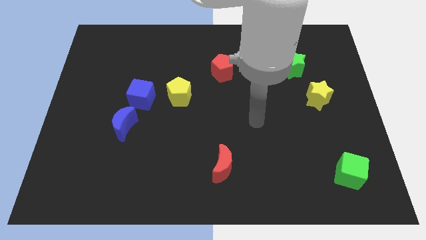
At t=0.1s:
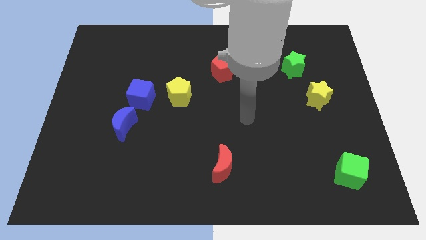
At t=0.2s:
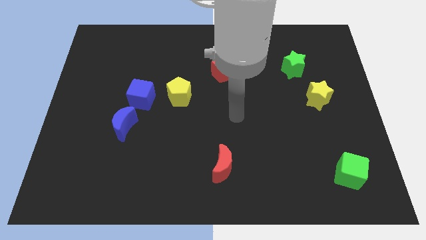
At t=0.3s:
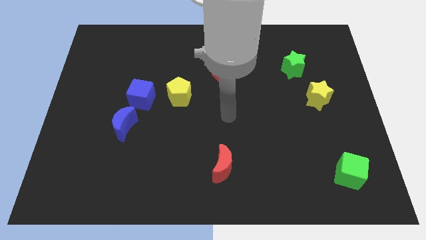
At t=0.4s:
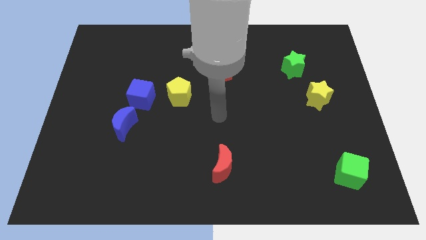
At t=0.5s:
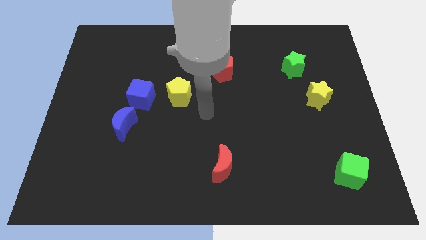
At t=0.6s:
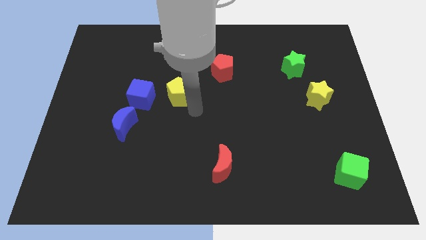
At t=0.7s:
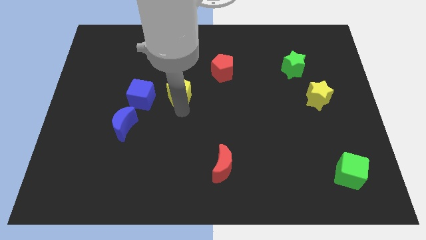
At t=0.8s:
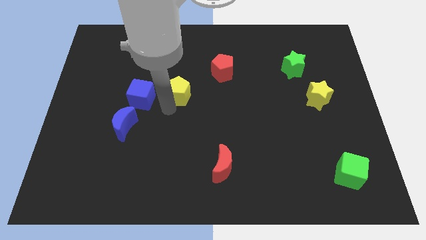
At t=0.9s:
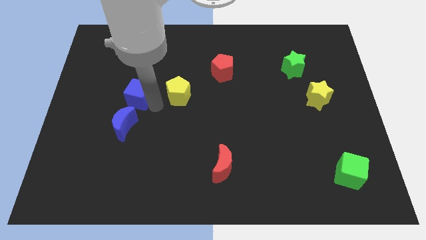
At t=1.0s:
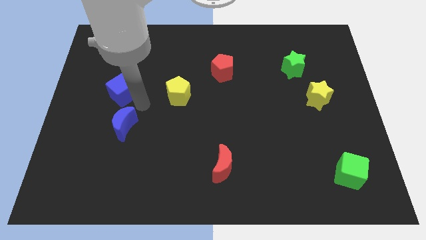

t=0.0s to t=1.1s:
pull the blue moon apart from the blue cube

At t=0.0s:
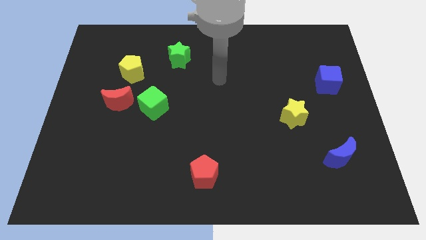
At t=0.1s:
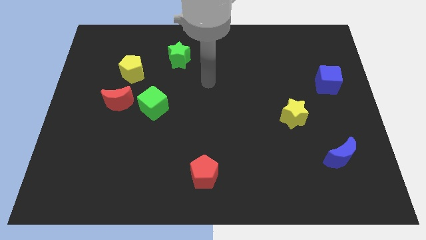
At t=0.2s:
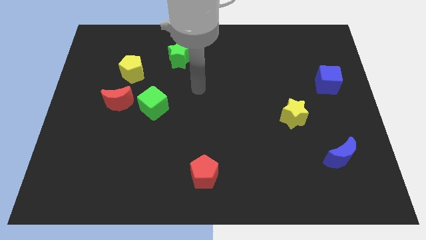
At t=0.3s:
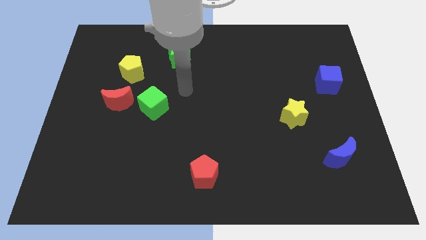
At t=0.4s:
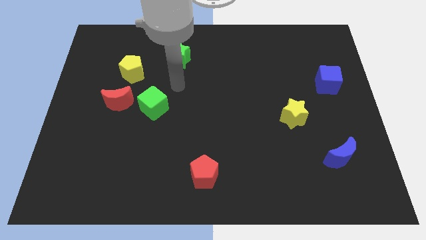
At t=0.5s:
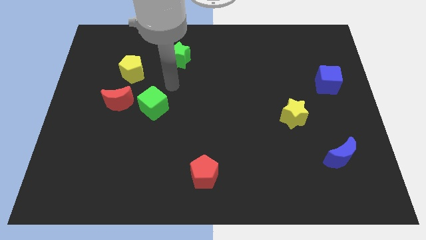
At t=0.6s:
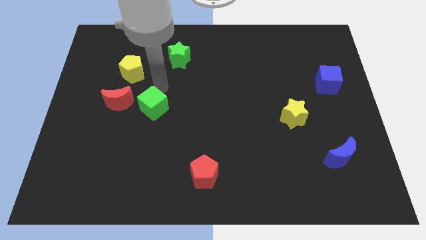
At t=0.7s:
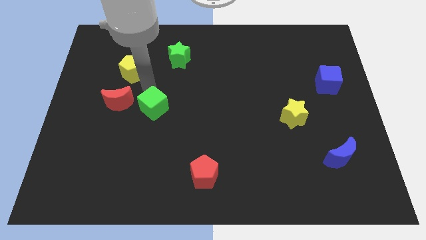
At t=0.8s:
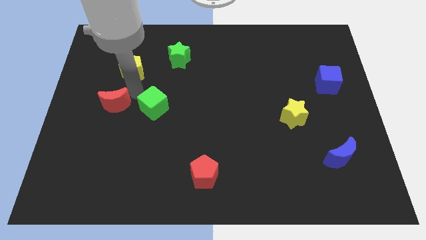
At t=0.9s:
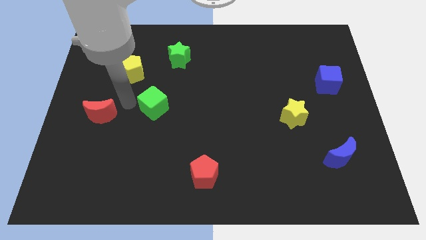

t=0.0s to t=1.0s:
separate the green cube from the red moon

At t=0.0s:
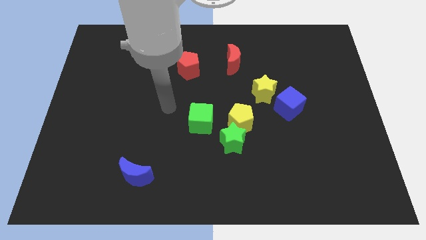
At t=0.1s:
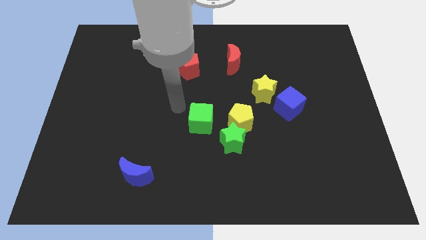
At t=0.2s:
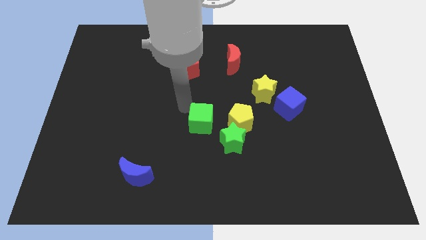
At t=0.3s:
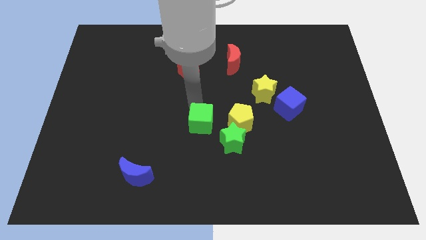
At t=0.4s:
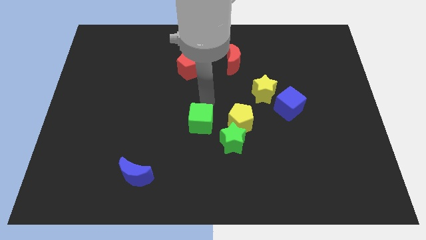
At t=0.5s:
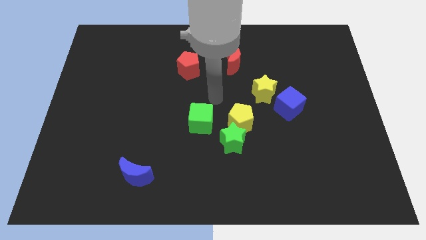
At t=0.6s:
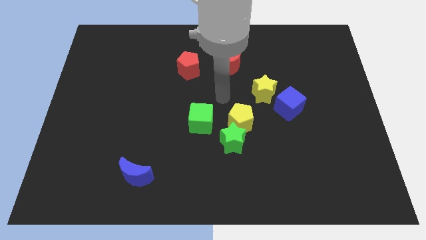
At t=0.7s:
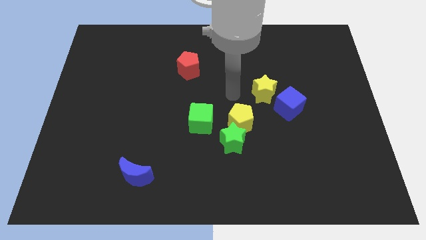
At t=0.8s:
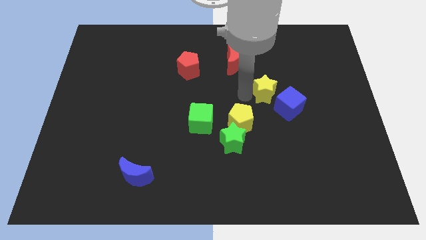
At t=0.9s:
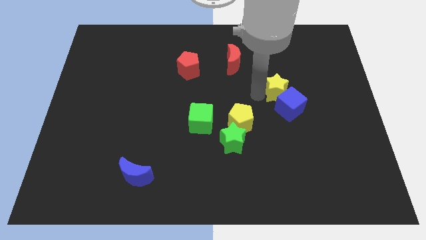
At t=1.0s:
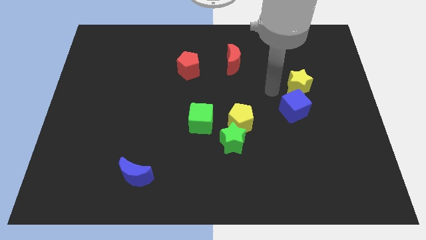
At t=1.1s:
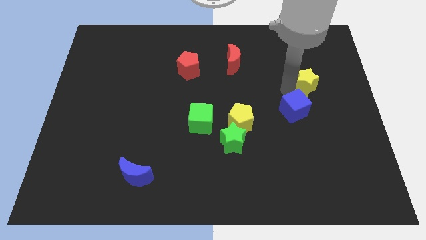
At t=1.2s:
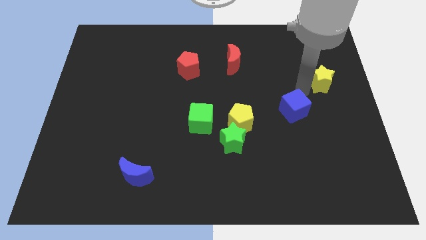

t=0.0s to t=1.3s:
separate the blue cube from the yellow star

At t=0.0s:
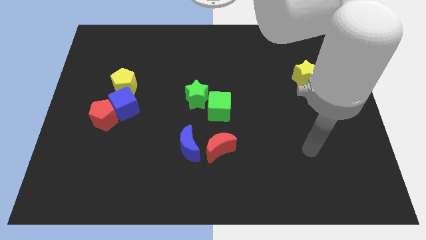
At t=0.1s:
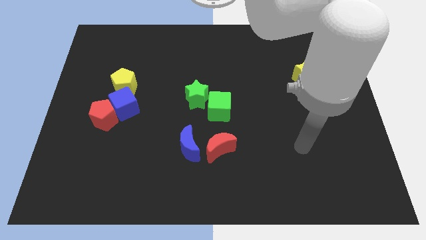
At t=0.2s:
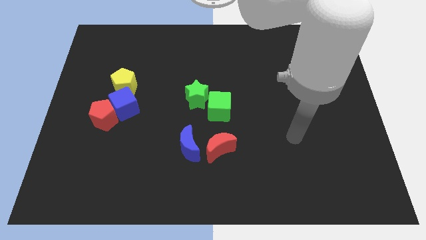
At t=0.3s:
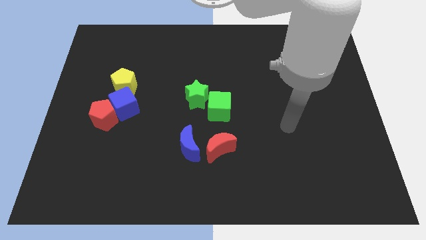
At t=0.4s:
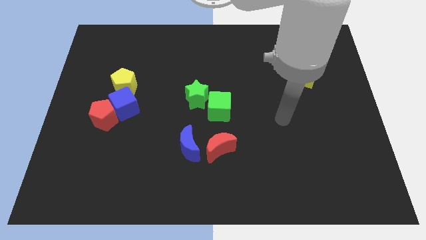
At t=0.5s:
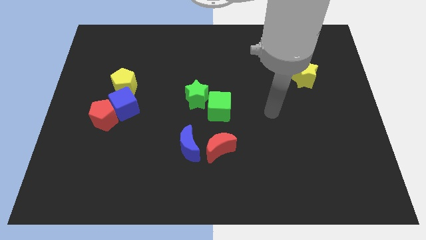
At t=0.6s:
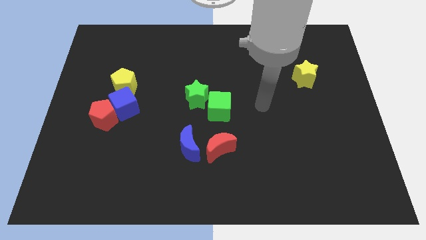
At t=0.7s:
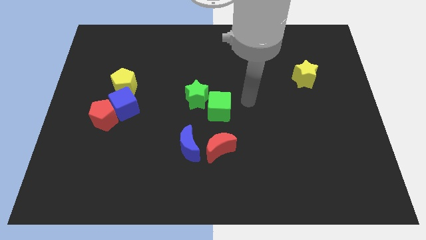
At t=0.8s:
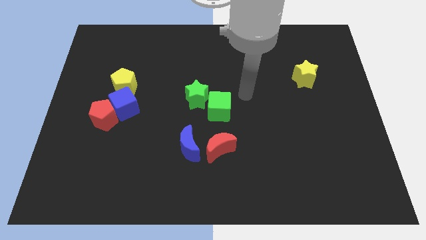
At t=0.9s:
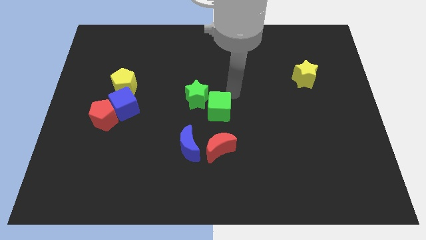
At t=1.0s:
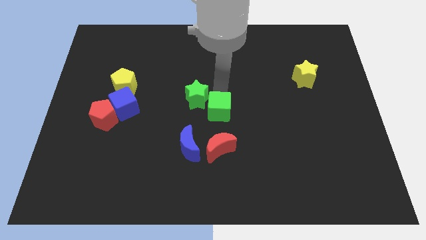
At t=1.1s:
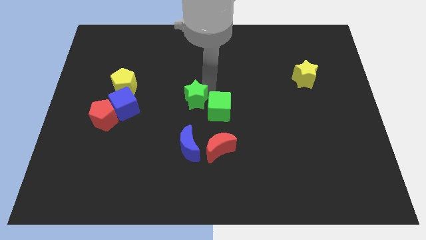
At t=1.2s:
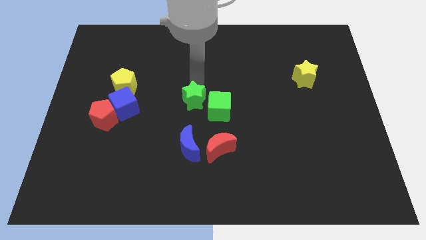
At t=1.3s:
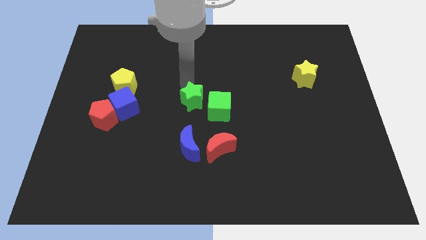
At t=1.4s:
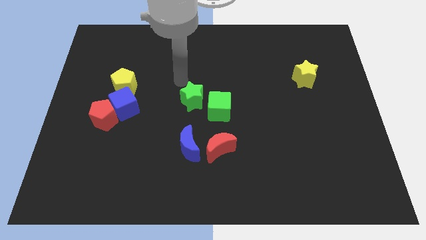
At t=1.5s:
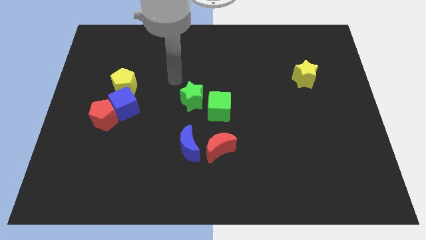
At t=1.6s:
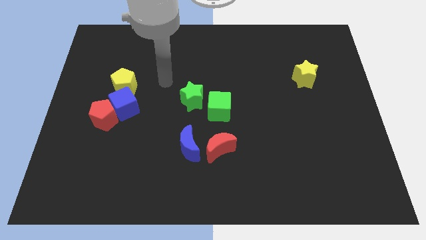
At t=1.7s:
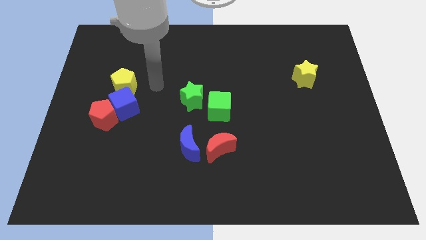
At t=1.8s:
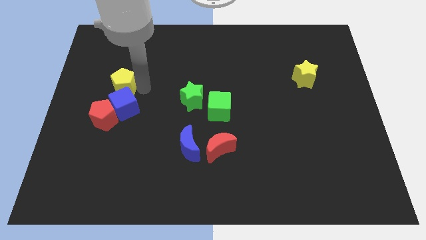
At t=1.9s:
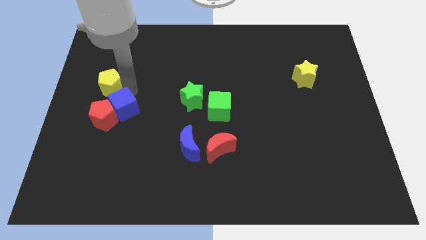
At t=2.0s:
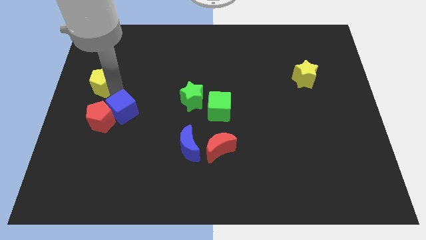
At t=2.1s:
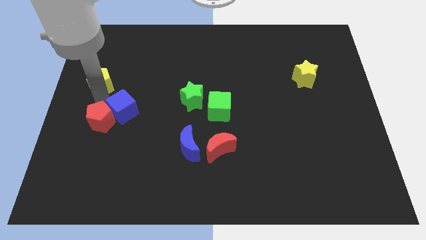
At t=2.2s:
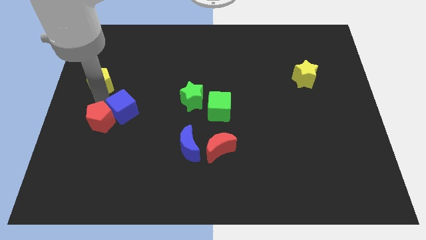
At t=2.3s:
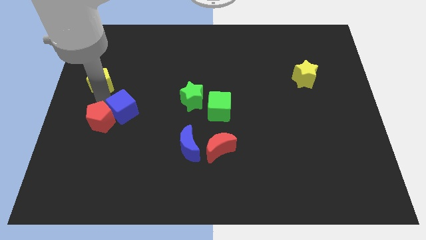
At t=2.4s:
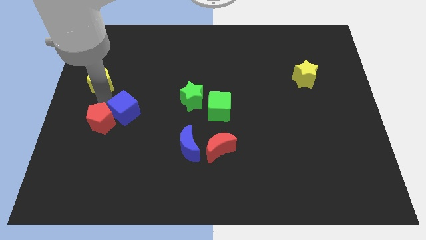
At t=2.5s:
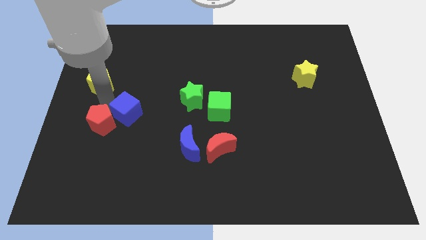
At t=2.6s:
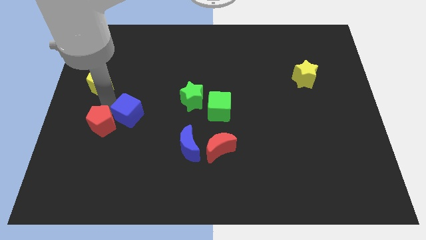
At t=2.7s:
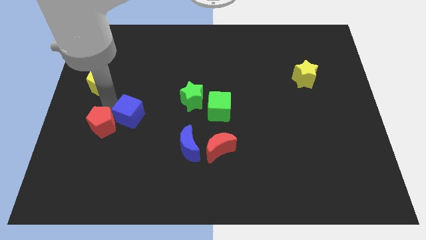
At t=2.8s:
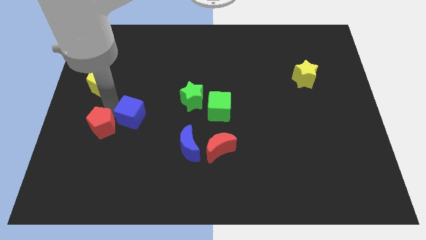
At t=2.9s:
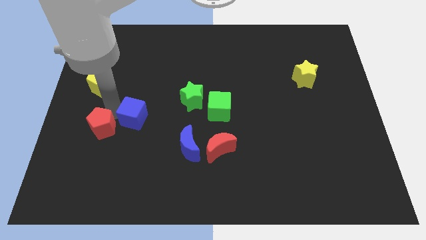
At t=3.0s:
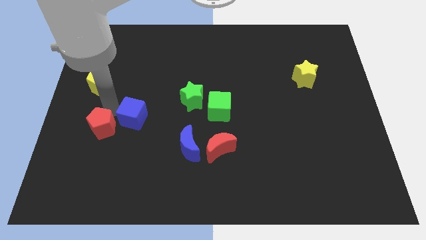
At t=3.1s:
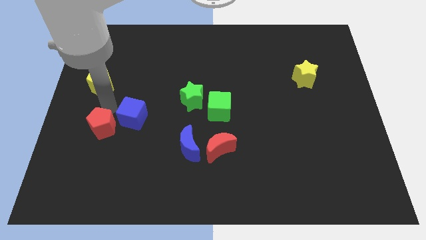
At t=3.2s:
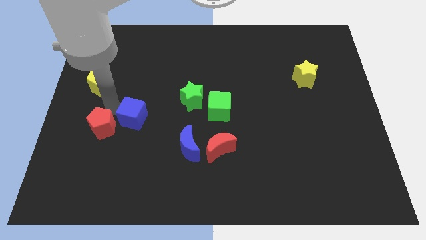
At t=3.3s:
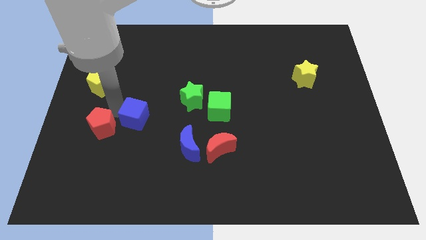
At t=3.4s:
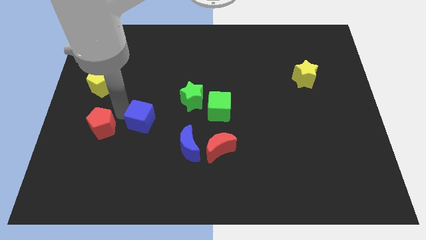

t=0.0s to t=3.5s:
pull the blue cube apart from the red pentagon and yellow pentagon

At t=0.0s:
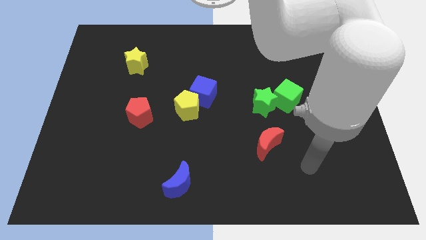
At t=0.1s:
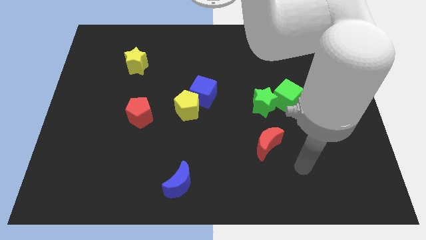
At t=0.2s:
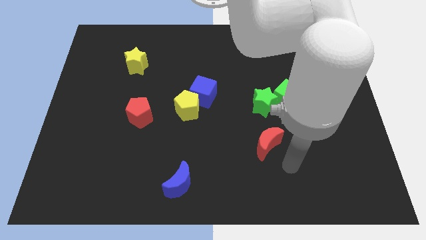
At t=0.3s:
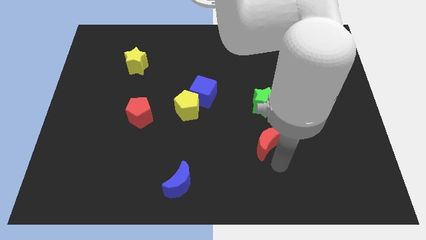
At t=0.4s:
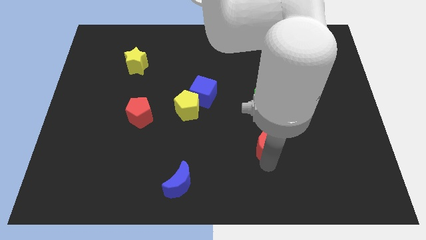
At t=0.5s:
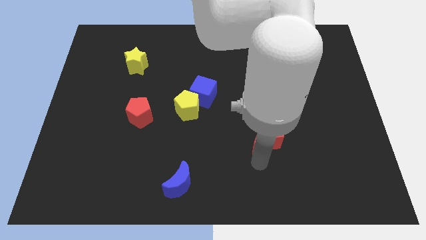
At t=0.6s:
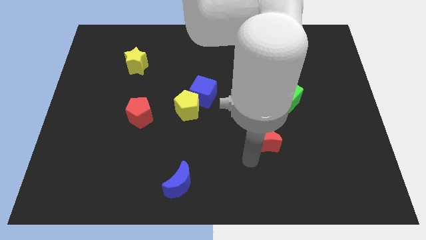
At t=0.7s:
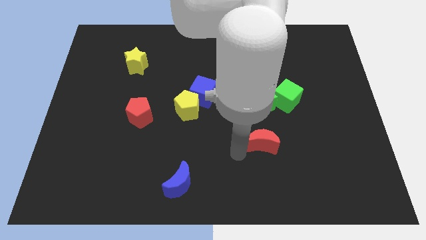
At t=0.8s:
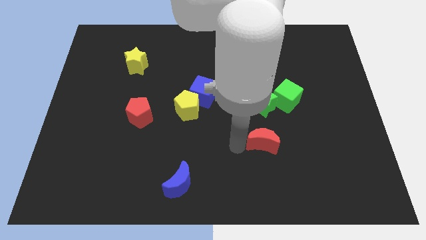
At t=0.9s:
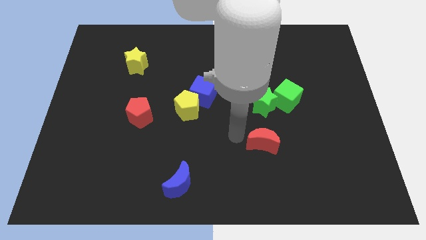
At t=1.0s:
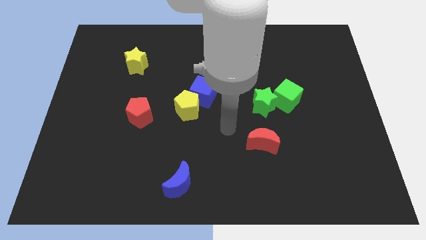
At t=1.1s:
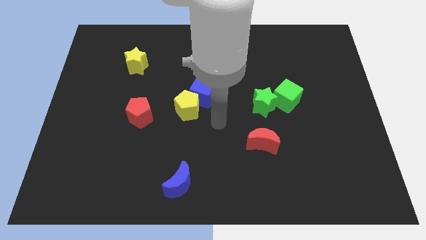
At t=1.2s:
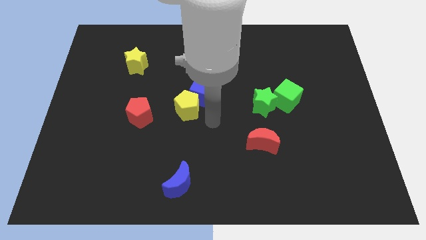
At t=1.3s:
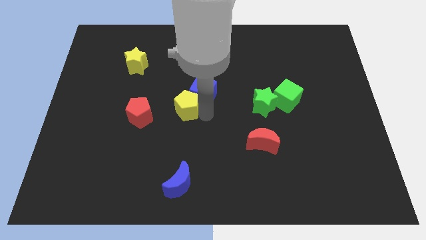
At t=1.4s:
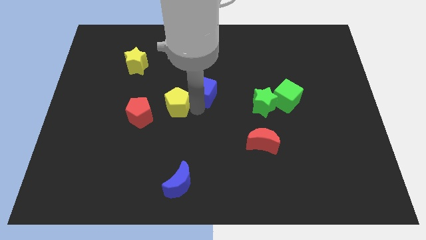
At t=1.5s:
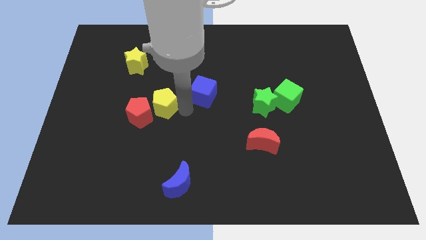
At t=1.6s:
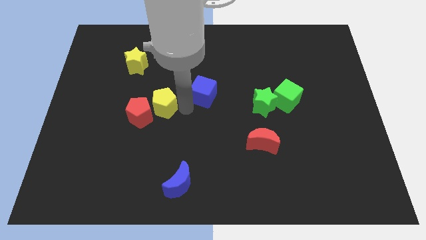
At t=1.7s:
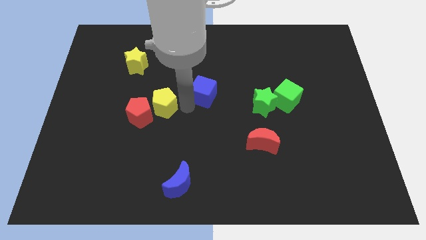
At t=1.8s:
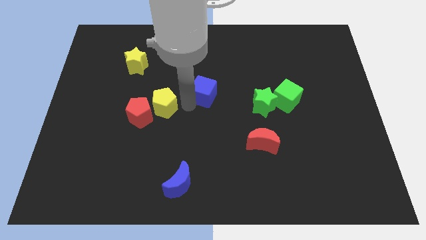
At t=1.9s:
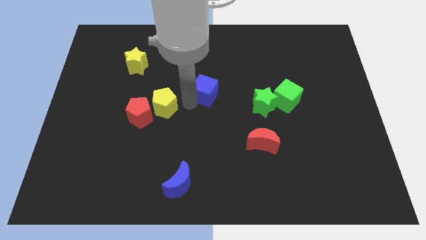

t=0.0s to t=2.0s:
separate the blue cube from the yellow pentagon

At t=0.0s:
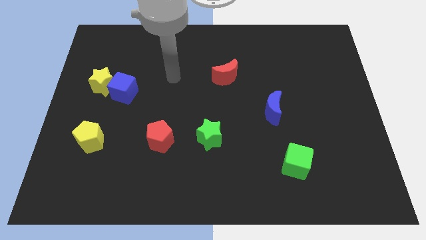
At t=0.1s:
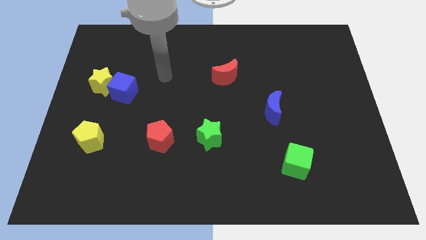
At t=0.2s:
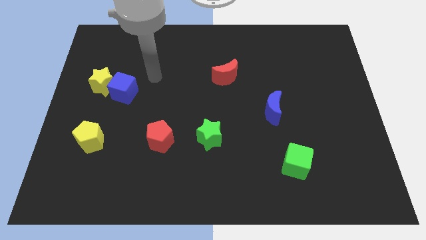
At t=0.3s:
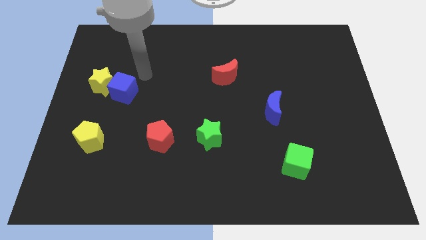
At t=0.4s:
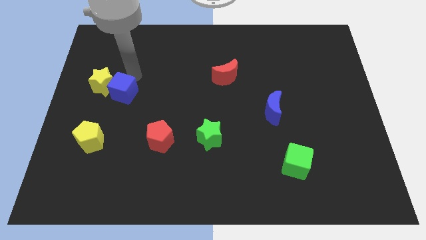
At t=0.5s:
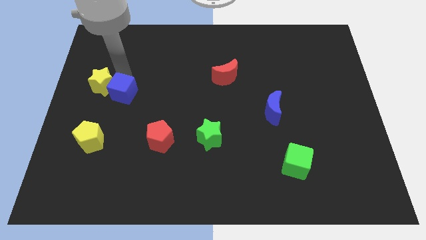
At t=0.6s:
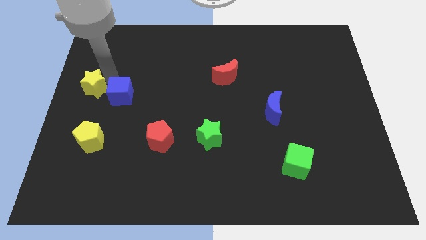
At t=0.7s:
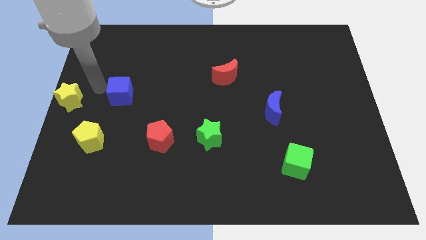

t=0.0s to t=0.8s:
pull the blue cube apart from the yellow star
